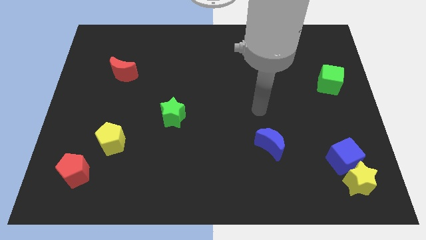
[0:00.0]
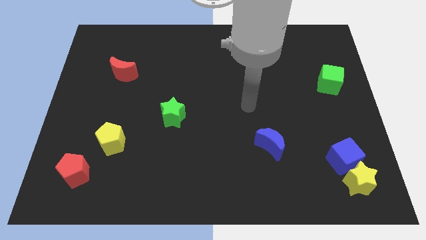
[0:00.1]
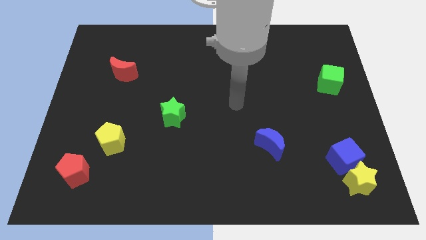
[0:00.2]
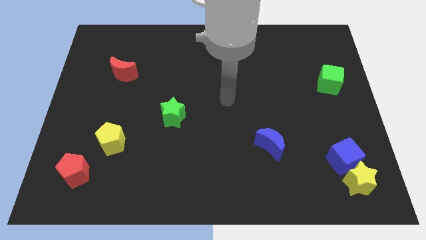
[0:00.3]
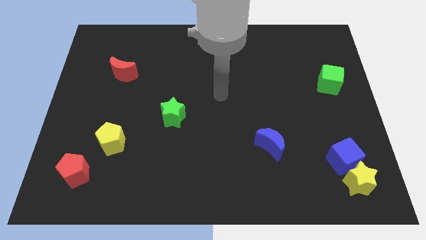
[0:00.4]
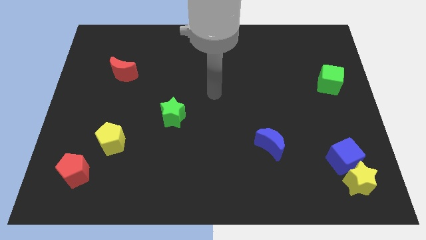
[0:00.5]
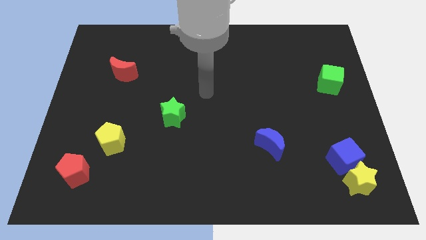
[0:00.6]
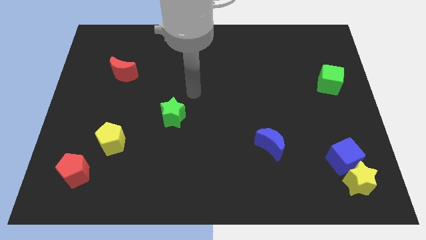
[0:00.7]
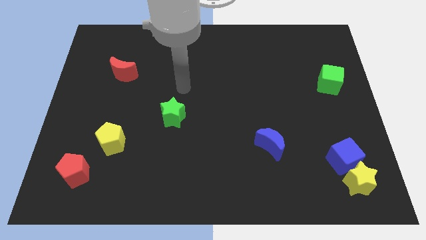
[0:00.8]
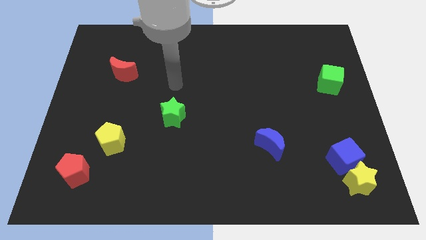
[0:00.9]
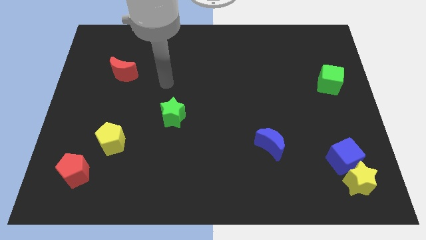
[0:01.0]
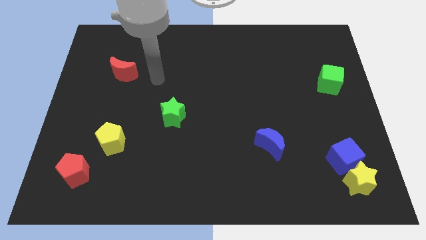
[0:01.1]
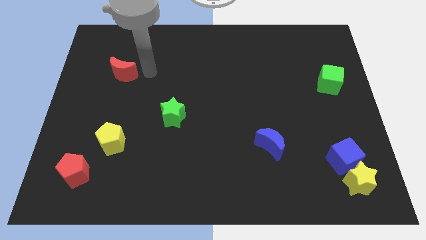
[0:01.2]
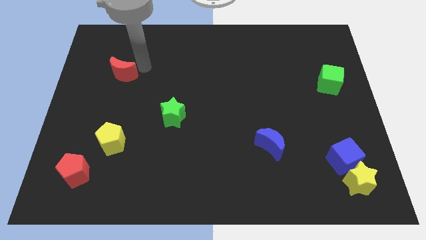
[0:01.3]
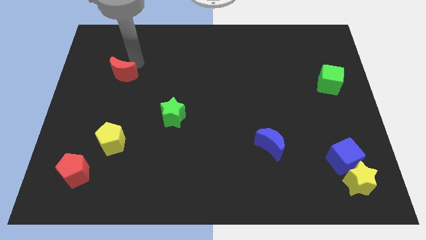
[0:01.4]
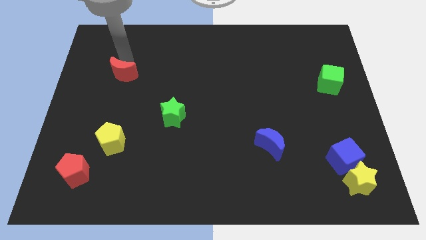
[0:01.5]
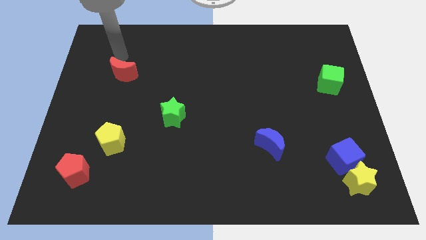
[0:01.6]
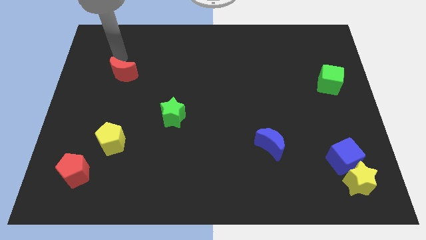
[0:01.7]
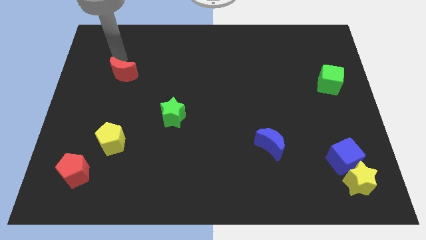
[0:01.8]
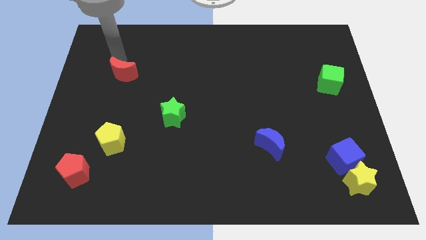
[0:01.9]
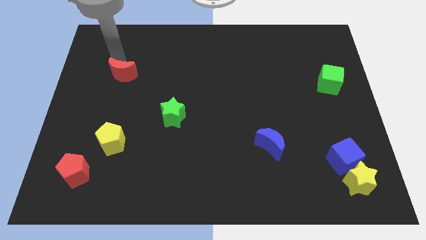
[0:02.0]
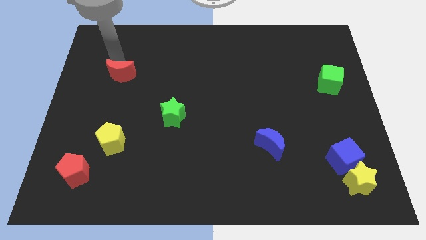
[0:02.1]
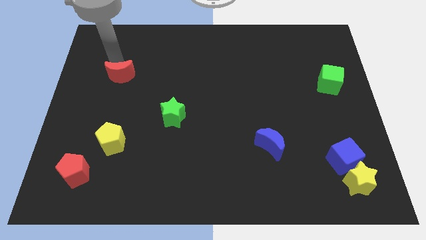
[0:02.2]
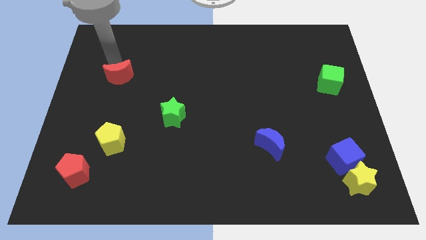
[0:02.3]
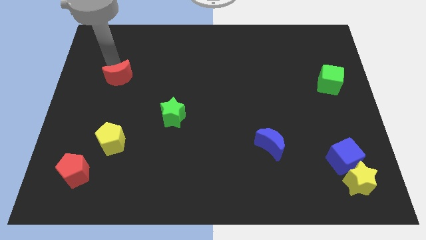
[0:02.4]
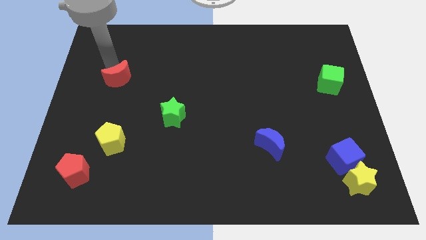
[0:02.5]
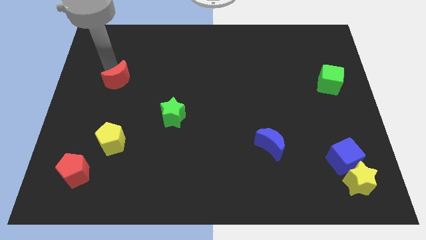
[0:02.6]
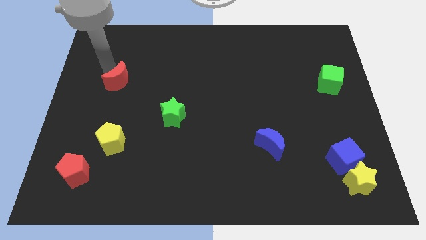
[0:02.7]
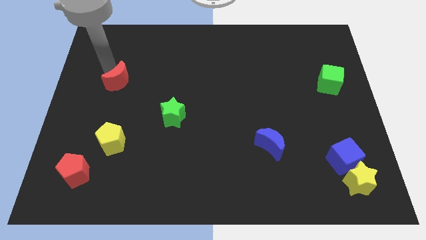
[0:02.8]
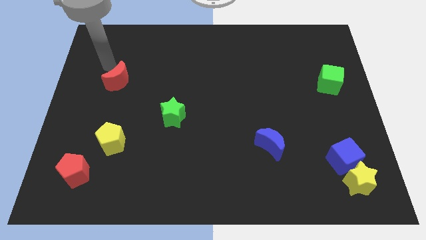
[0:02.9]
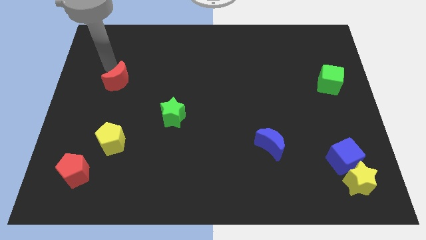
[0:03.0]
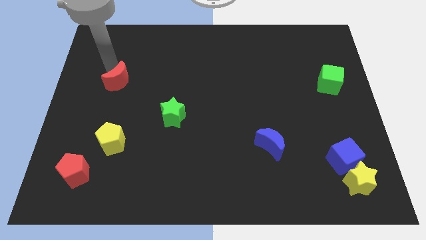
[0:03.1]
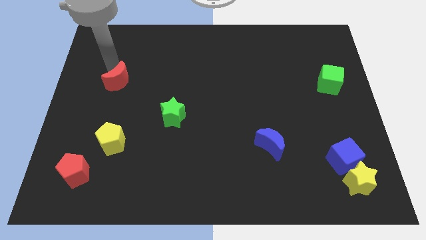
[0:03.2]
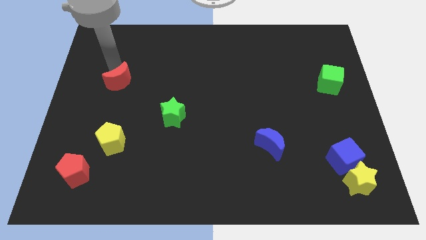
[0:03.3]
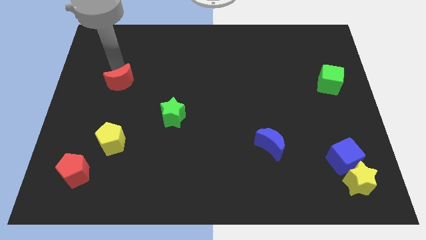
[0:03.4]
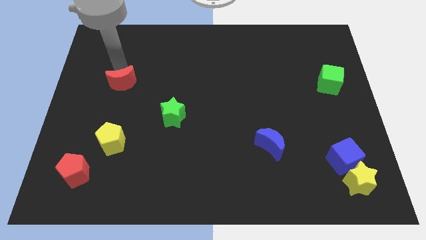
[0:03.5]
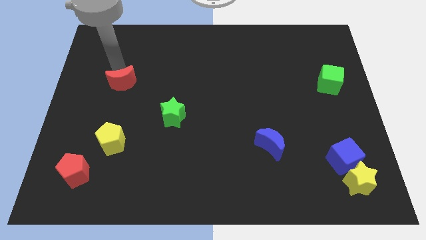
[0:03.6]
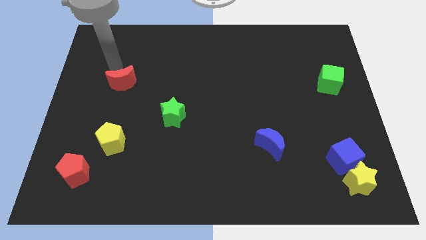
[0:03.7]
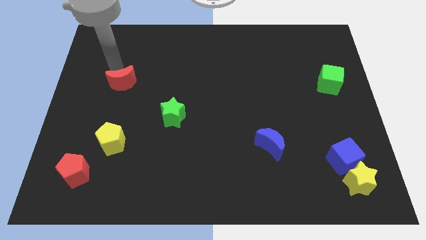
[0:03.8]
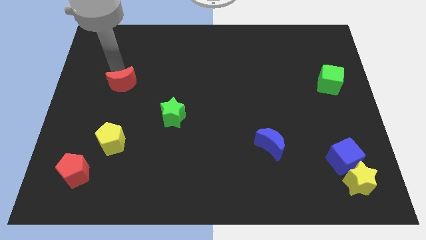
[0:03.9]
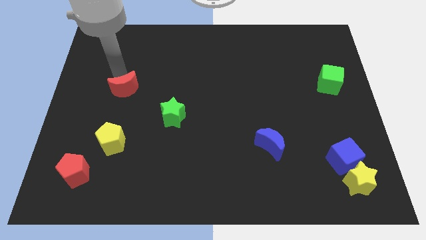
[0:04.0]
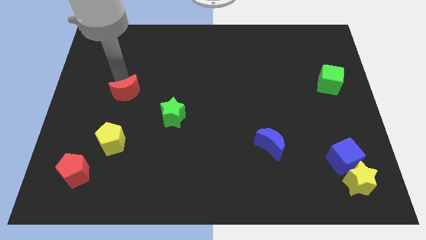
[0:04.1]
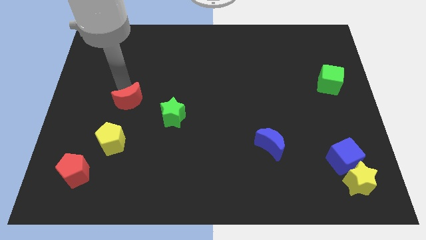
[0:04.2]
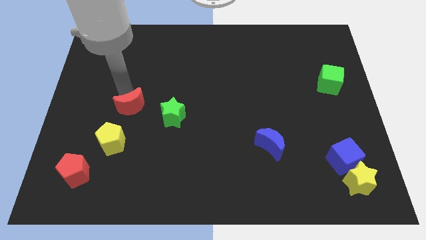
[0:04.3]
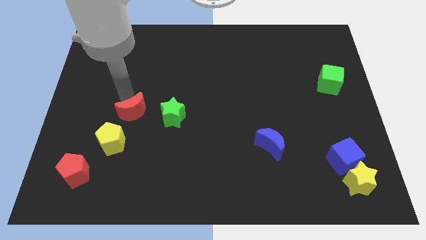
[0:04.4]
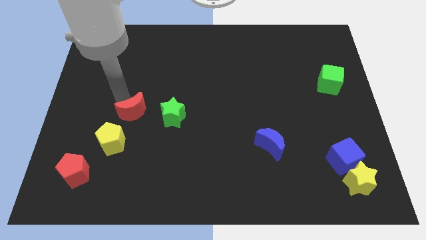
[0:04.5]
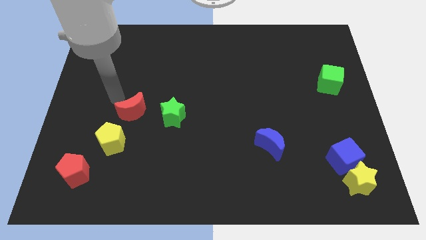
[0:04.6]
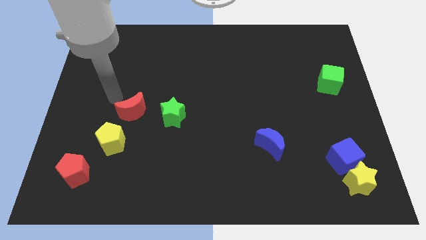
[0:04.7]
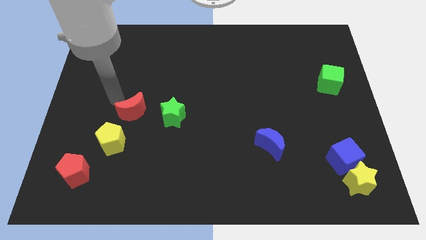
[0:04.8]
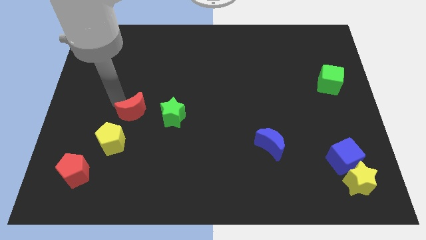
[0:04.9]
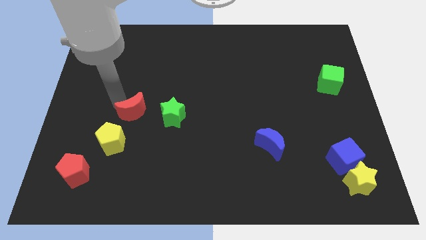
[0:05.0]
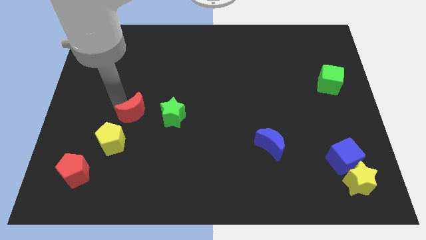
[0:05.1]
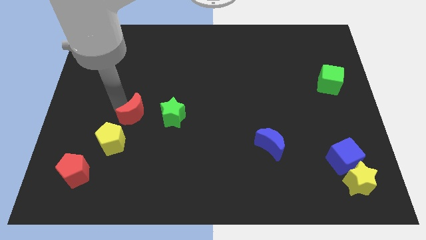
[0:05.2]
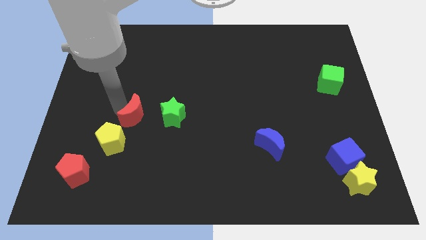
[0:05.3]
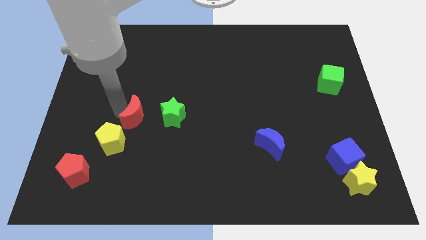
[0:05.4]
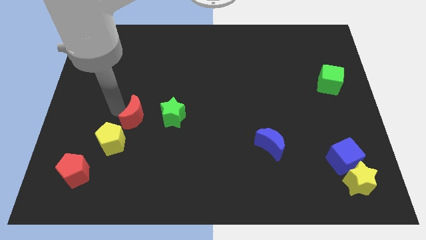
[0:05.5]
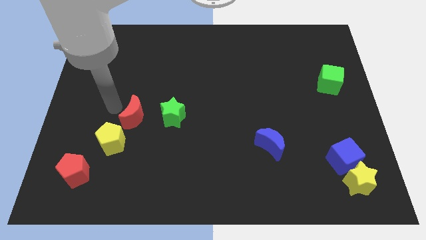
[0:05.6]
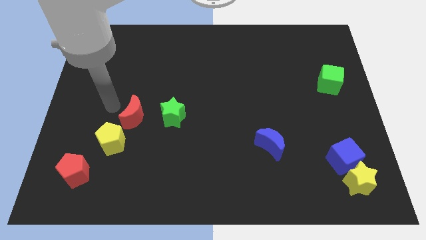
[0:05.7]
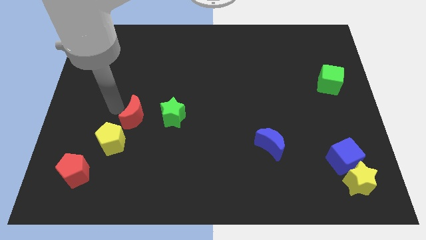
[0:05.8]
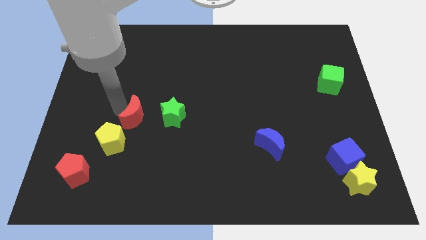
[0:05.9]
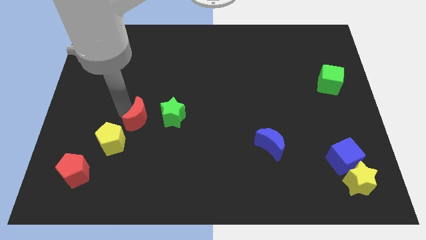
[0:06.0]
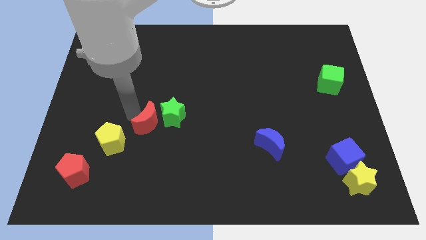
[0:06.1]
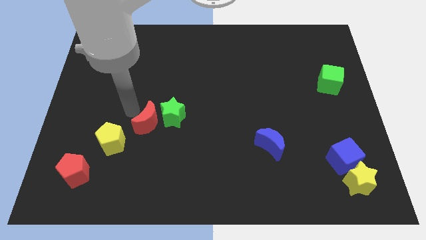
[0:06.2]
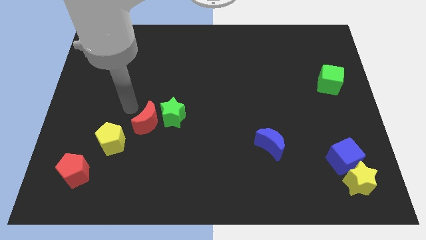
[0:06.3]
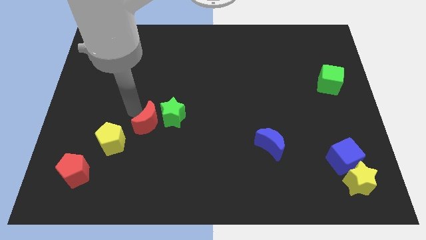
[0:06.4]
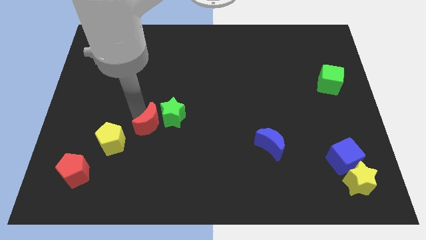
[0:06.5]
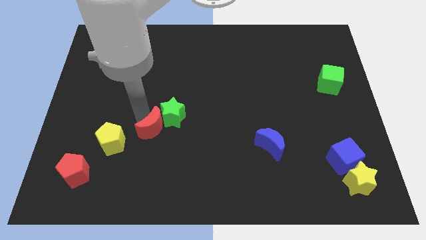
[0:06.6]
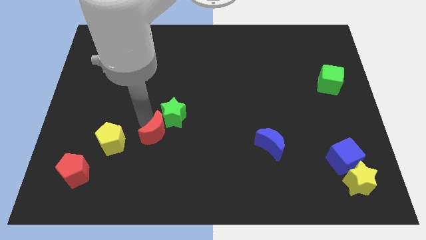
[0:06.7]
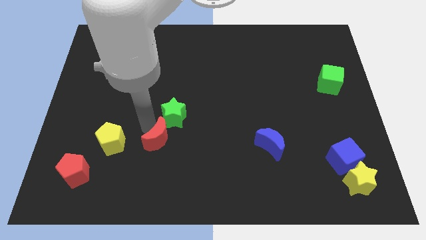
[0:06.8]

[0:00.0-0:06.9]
push the red moon down and then right

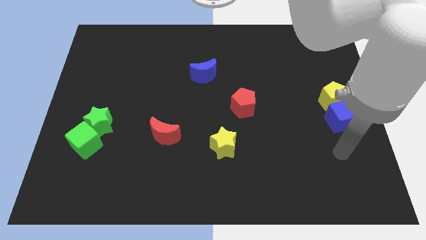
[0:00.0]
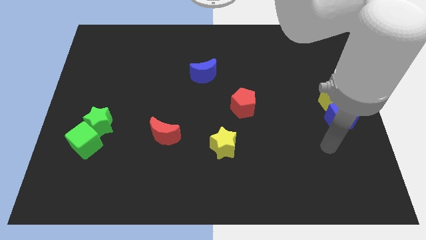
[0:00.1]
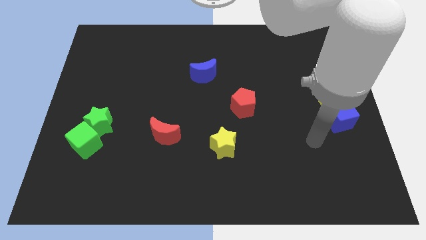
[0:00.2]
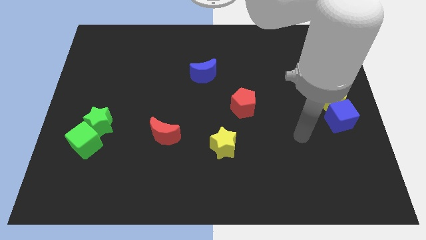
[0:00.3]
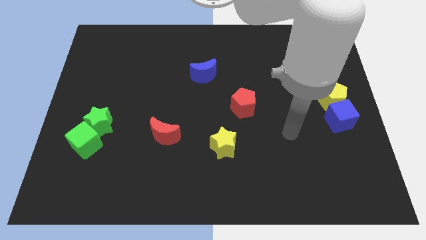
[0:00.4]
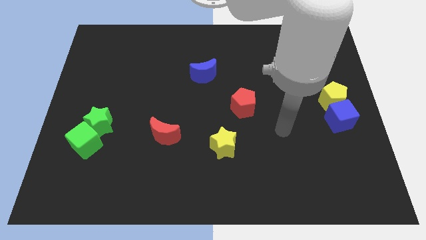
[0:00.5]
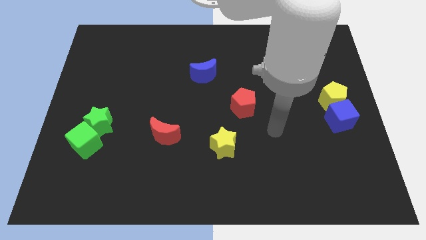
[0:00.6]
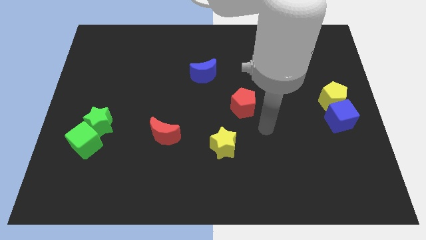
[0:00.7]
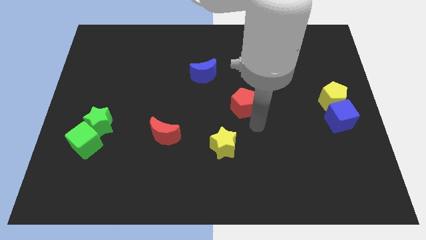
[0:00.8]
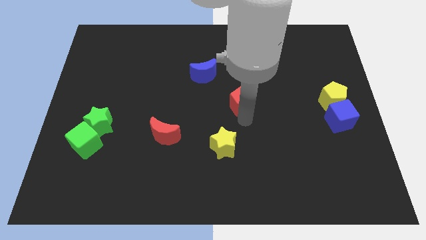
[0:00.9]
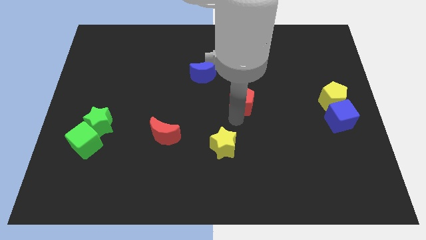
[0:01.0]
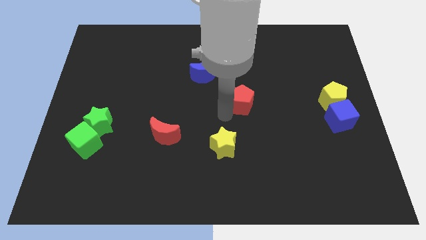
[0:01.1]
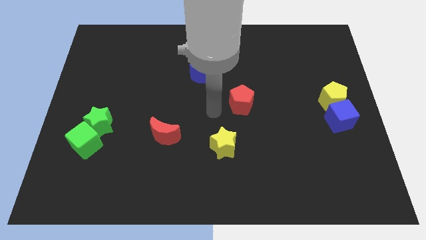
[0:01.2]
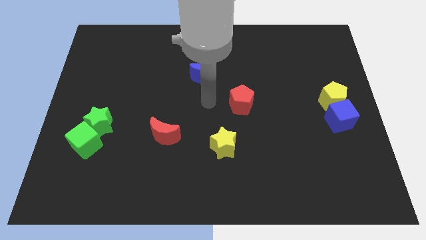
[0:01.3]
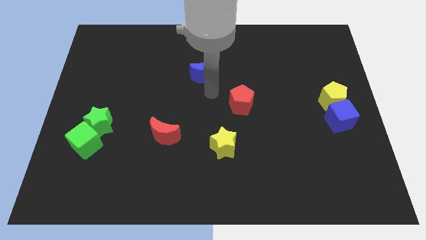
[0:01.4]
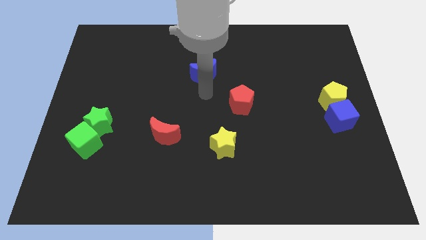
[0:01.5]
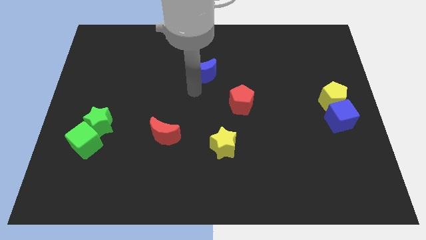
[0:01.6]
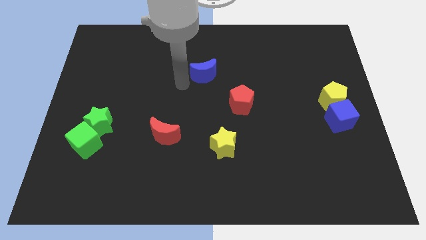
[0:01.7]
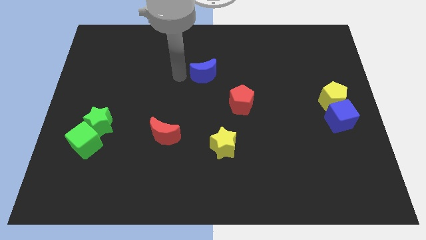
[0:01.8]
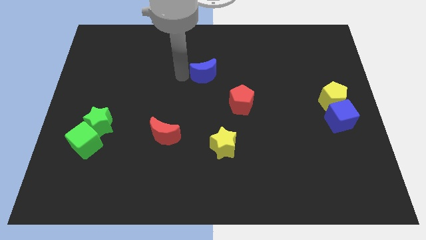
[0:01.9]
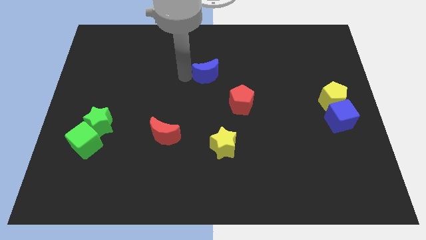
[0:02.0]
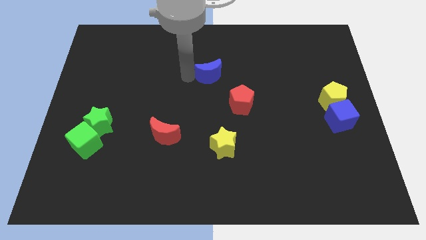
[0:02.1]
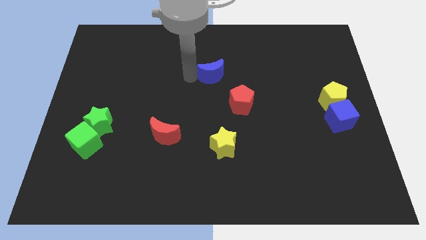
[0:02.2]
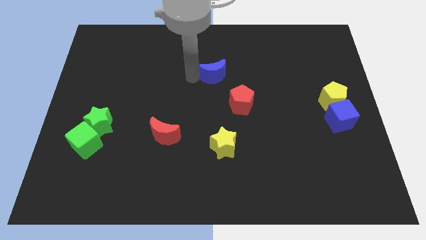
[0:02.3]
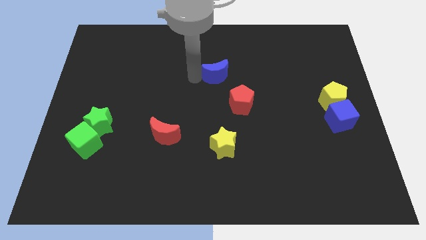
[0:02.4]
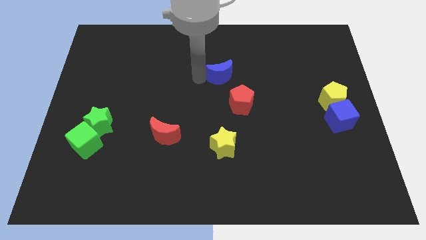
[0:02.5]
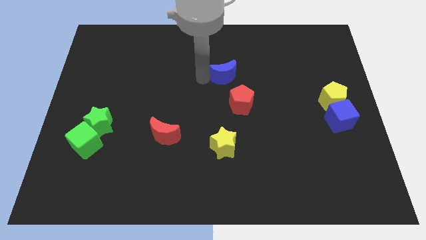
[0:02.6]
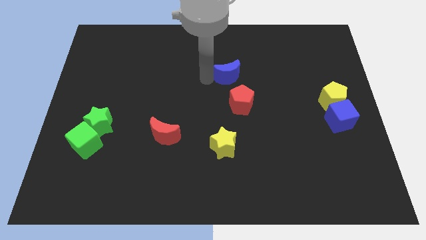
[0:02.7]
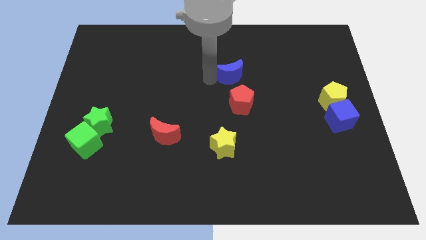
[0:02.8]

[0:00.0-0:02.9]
slightly push the blue moon to the right
